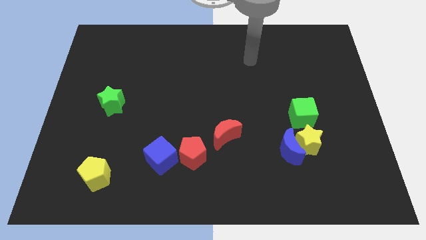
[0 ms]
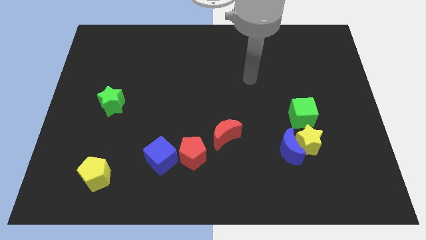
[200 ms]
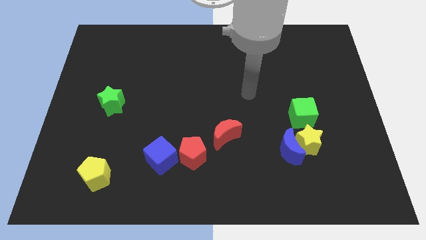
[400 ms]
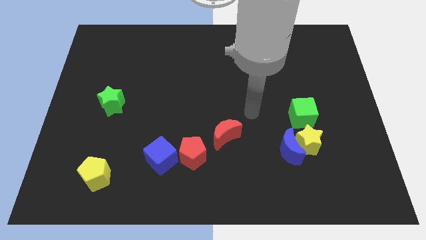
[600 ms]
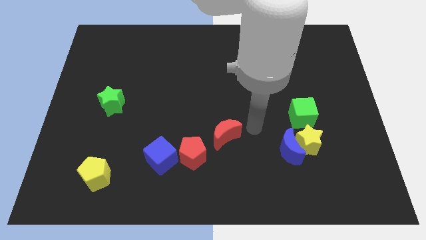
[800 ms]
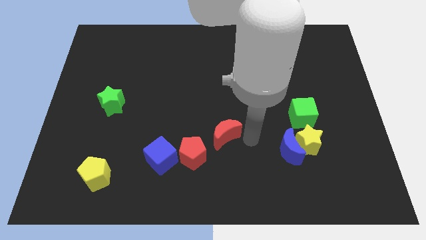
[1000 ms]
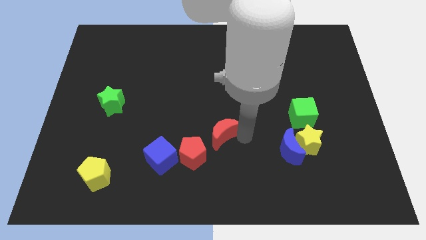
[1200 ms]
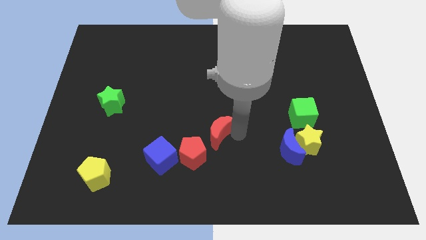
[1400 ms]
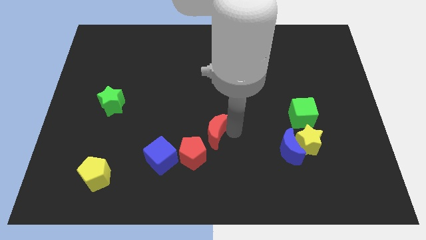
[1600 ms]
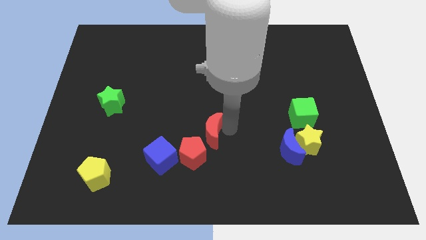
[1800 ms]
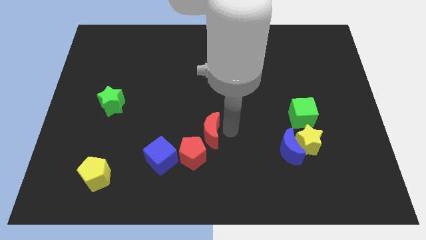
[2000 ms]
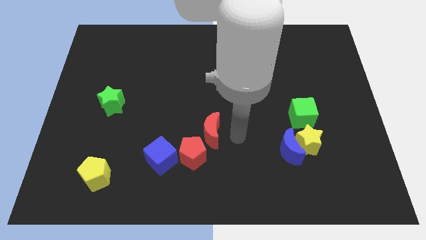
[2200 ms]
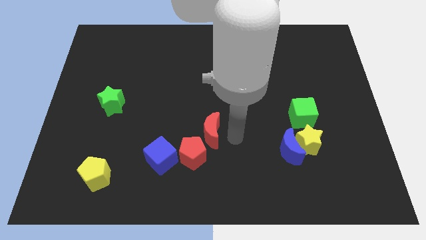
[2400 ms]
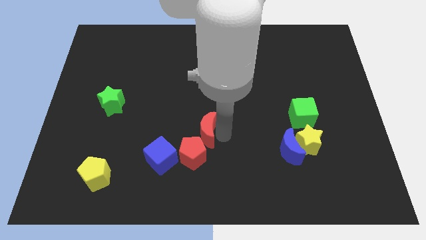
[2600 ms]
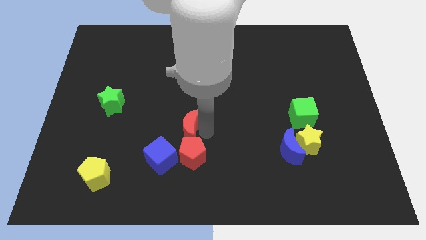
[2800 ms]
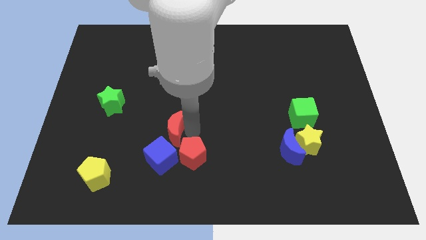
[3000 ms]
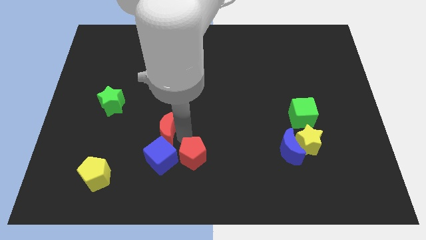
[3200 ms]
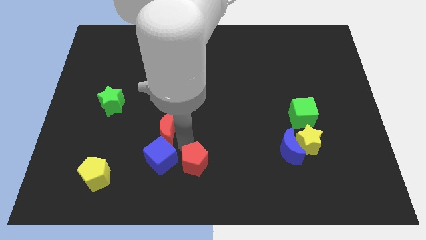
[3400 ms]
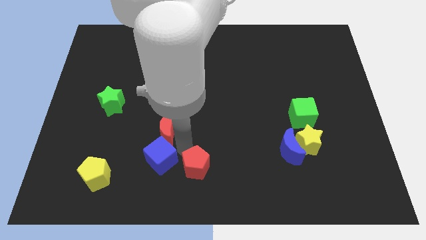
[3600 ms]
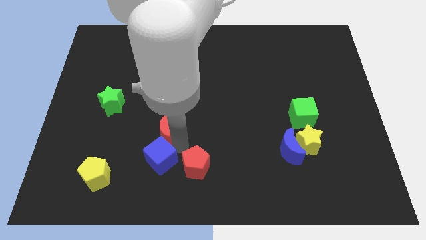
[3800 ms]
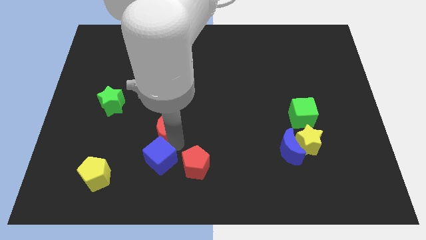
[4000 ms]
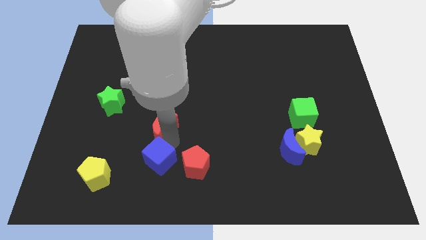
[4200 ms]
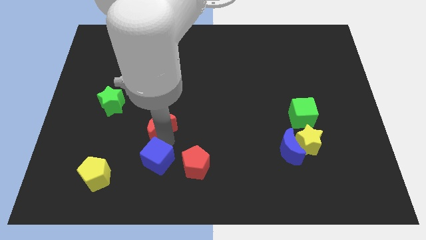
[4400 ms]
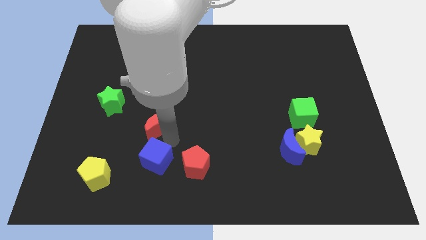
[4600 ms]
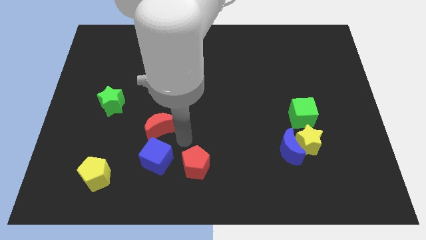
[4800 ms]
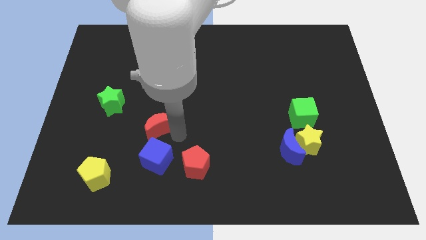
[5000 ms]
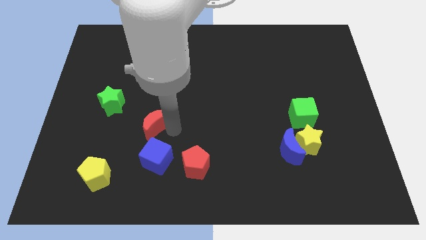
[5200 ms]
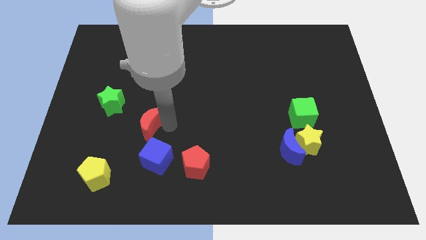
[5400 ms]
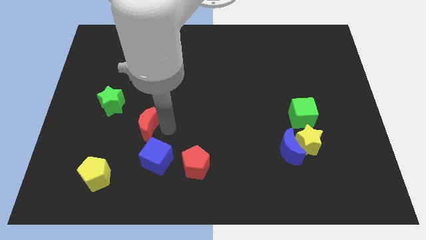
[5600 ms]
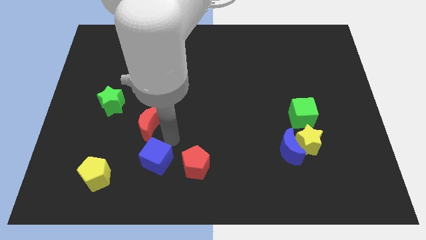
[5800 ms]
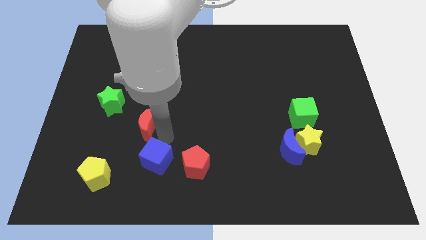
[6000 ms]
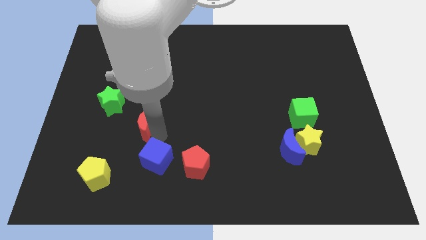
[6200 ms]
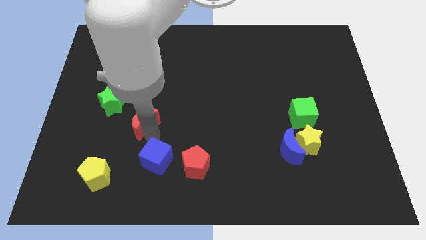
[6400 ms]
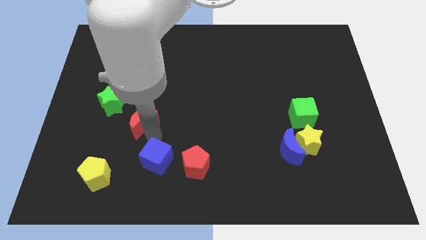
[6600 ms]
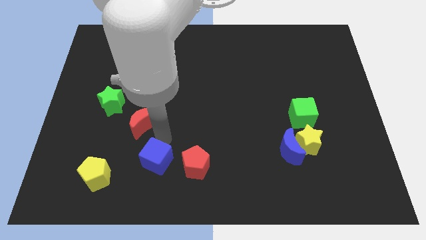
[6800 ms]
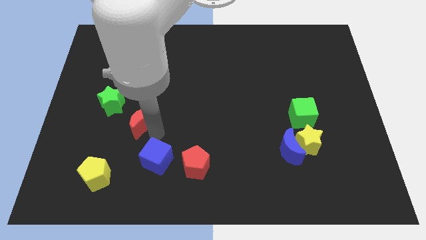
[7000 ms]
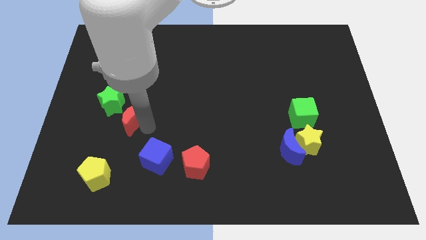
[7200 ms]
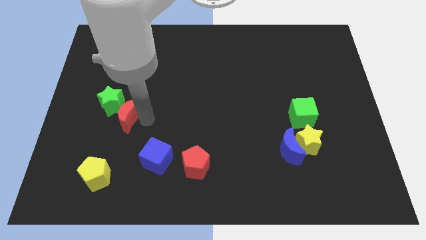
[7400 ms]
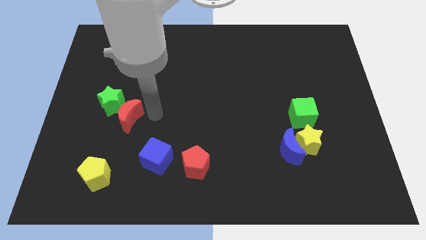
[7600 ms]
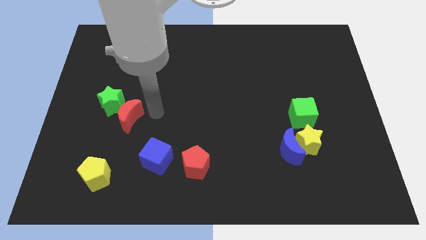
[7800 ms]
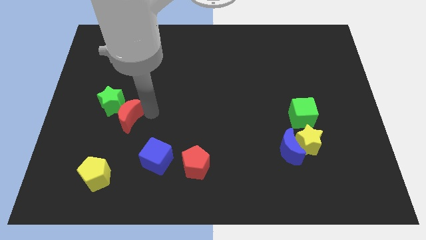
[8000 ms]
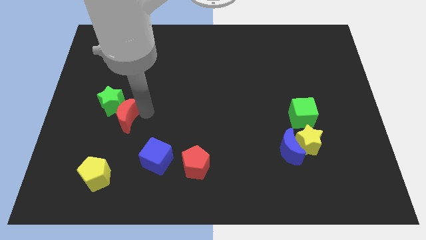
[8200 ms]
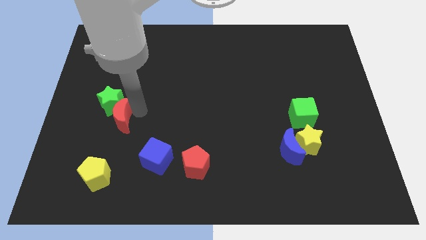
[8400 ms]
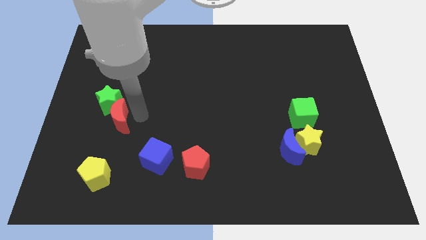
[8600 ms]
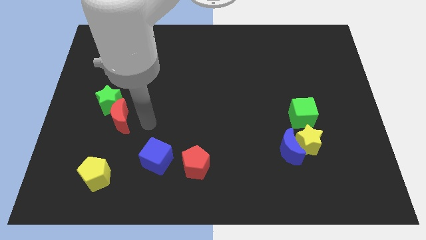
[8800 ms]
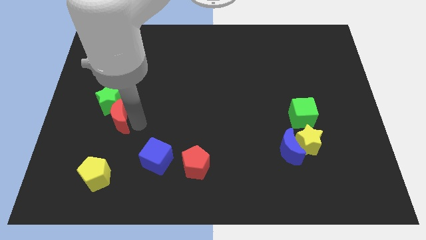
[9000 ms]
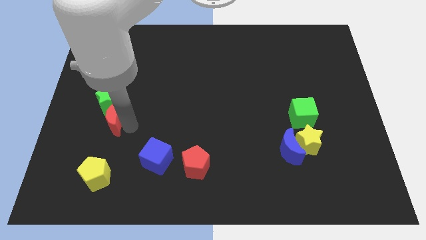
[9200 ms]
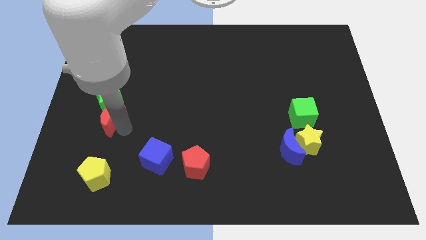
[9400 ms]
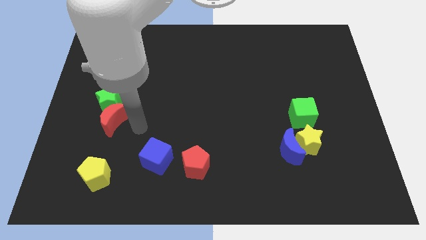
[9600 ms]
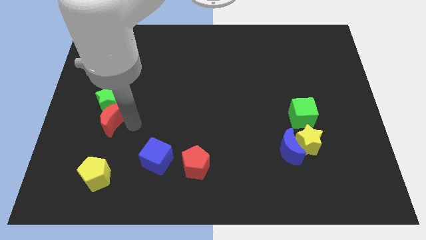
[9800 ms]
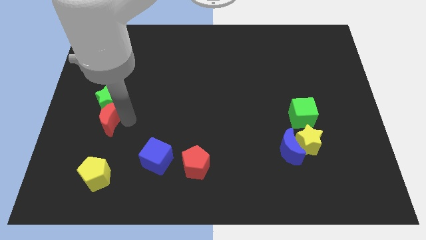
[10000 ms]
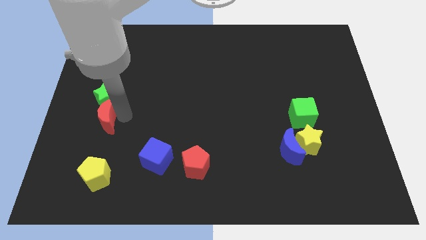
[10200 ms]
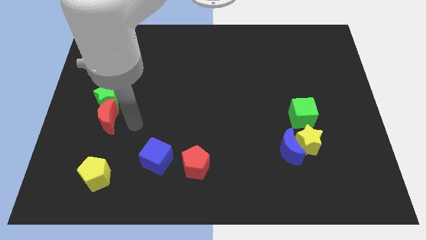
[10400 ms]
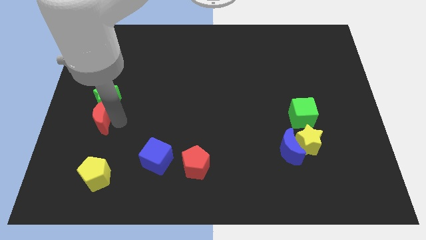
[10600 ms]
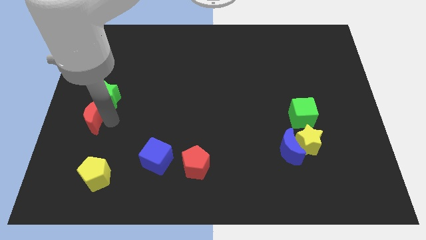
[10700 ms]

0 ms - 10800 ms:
move the red moon to the left side of the board
